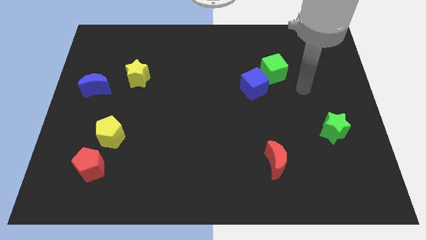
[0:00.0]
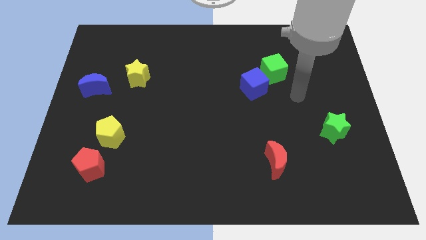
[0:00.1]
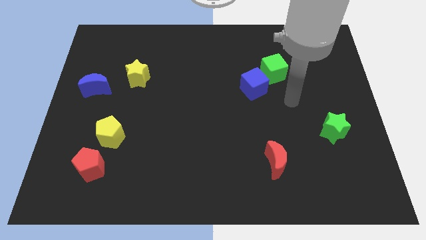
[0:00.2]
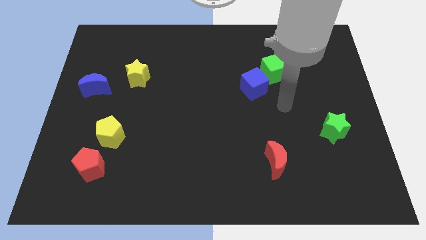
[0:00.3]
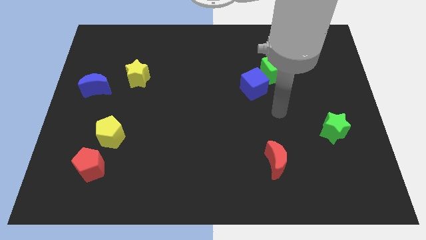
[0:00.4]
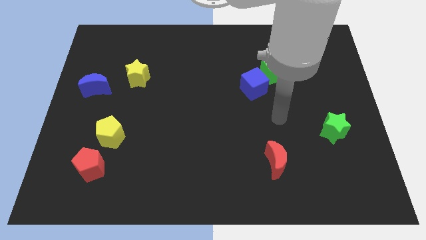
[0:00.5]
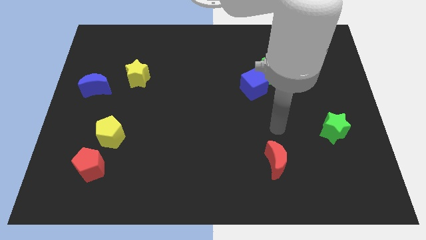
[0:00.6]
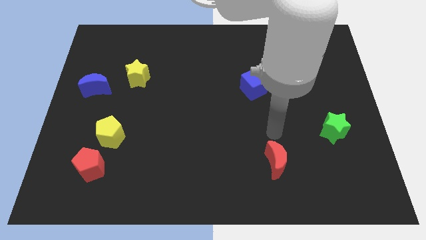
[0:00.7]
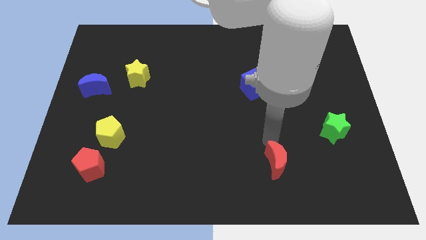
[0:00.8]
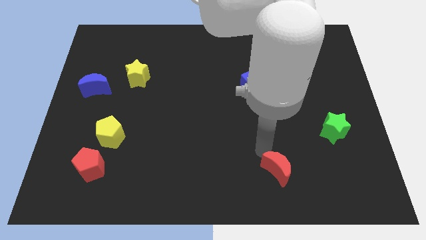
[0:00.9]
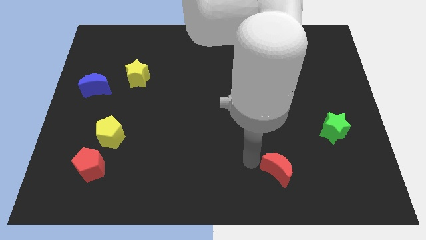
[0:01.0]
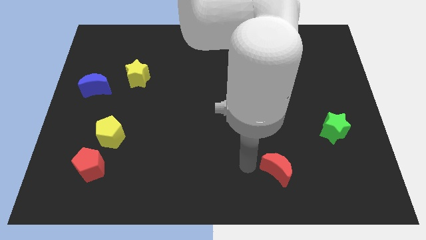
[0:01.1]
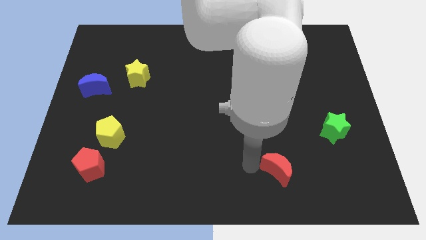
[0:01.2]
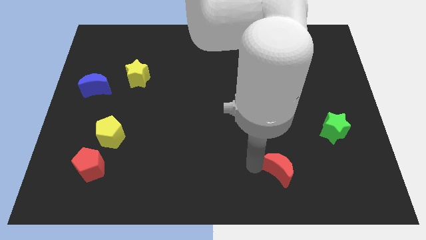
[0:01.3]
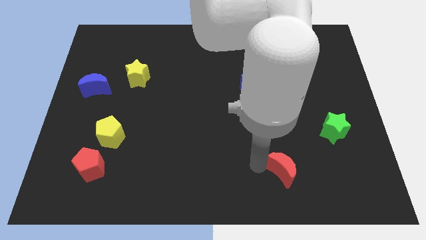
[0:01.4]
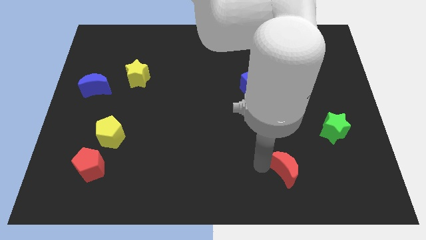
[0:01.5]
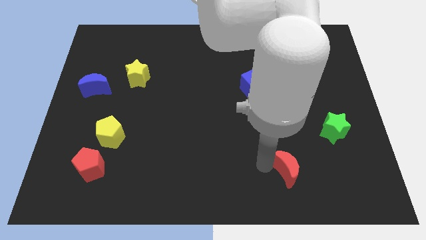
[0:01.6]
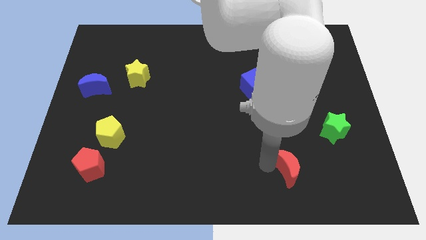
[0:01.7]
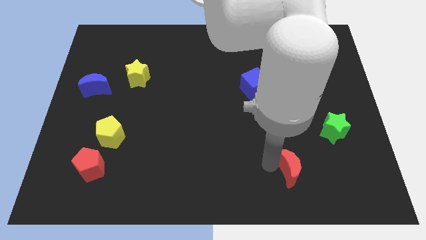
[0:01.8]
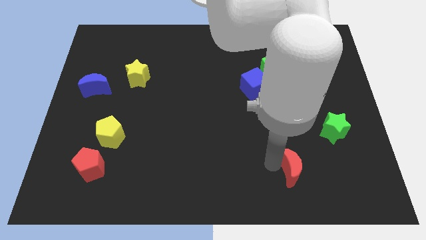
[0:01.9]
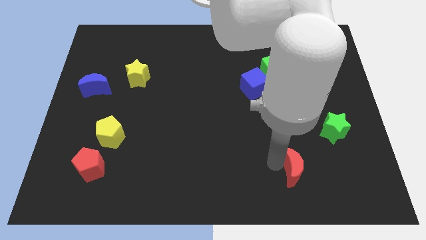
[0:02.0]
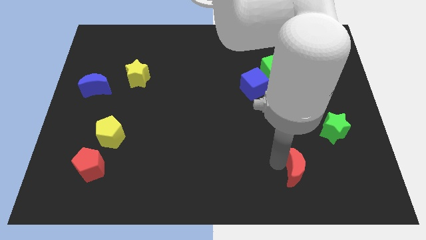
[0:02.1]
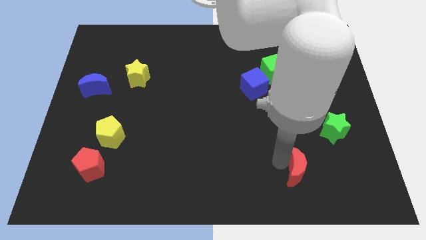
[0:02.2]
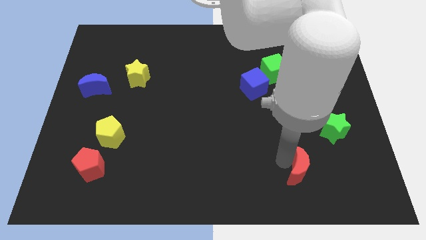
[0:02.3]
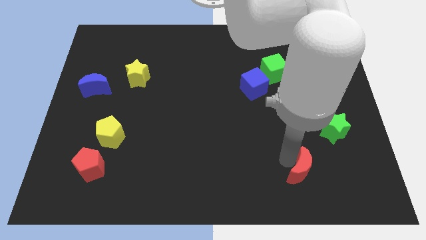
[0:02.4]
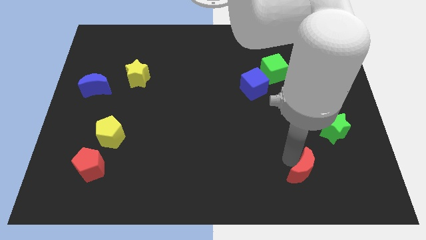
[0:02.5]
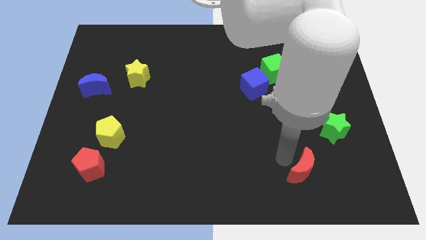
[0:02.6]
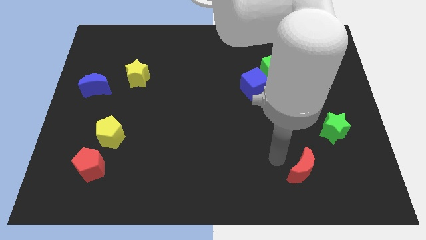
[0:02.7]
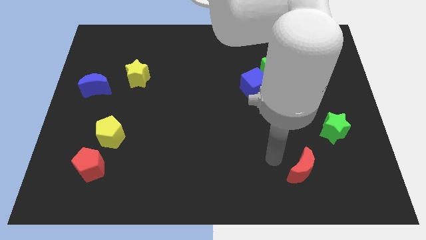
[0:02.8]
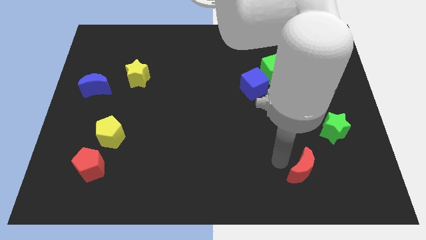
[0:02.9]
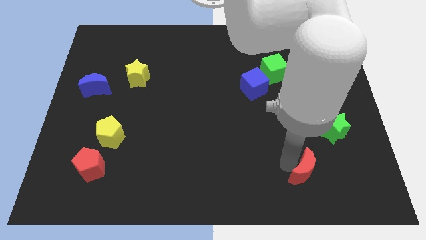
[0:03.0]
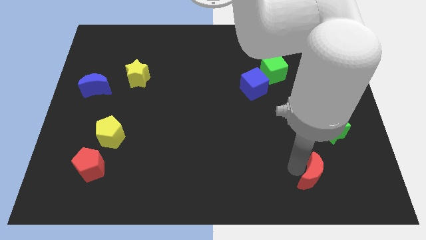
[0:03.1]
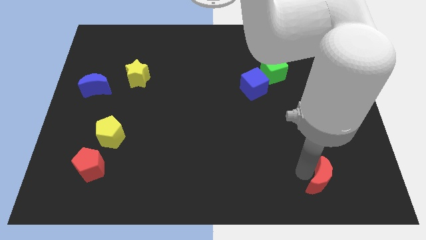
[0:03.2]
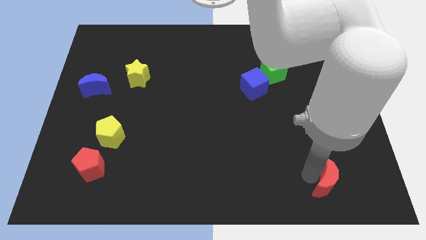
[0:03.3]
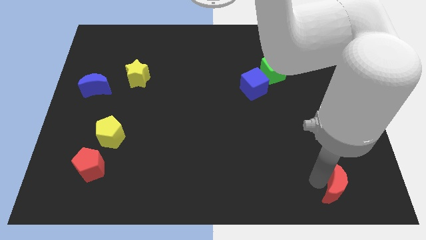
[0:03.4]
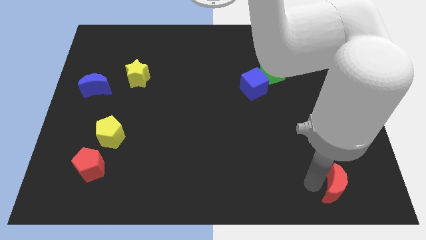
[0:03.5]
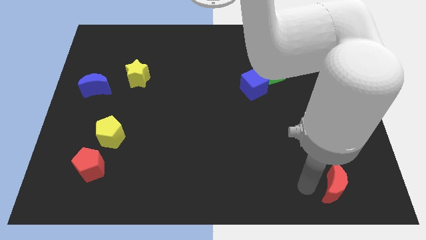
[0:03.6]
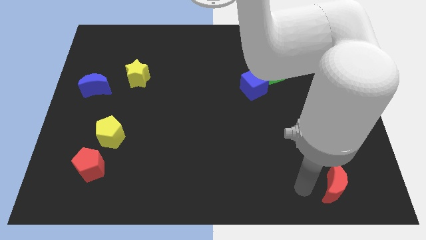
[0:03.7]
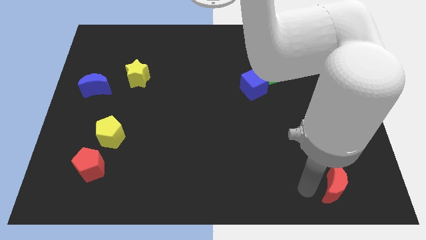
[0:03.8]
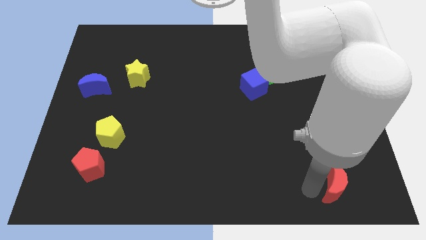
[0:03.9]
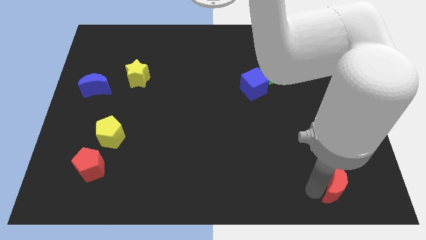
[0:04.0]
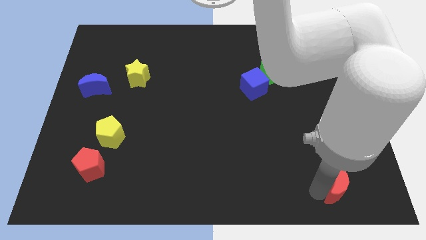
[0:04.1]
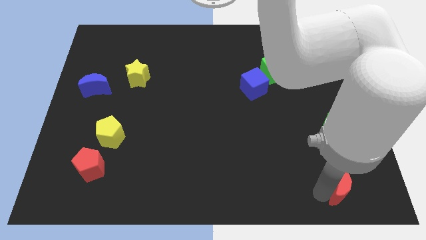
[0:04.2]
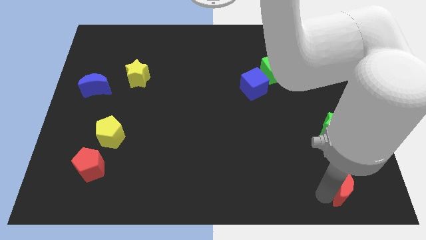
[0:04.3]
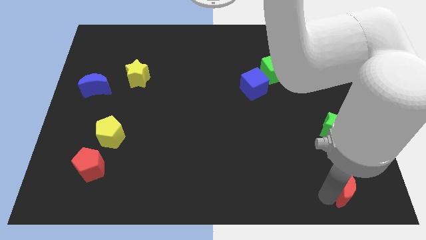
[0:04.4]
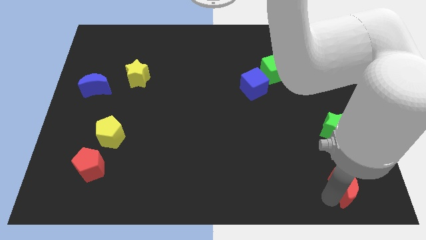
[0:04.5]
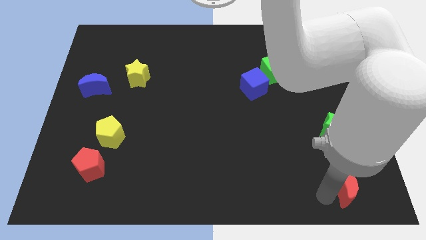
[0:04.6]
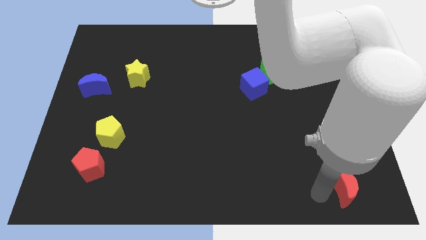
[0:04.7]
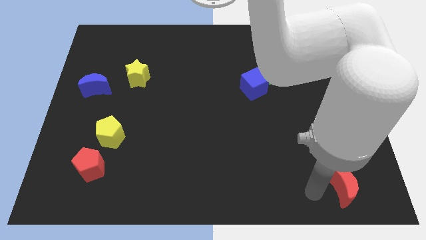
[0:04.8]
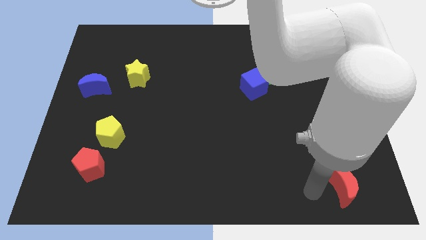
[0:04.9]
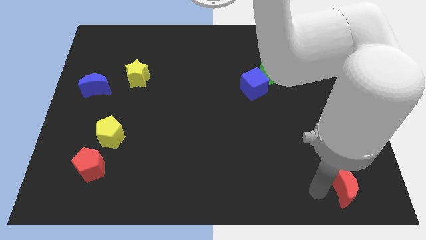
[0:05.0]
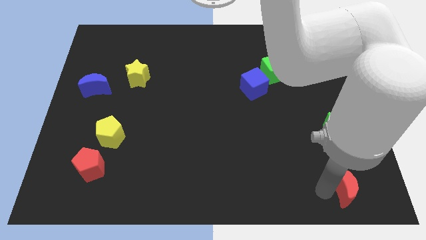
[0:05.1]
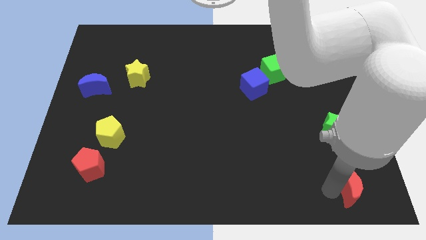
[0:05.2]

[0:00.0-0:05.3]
move the red moon to the bottom right

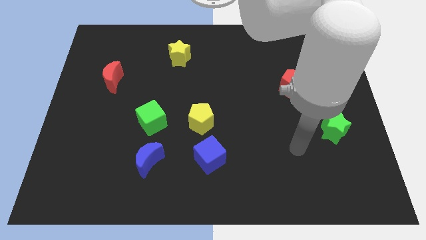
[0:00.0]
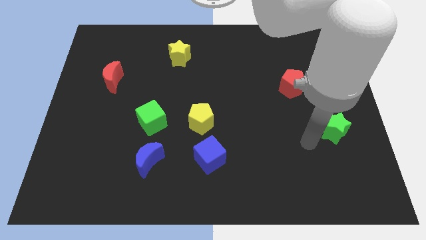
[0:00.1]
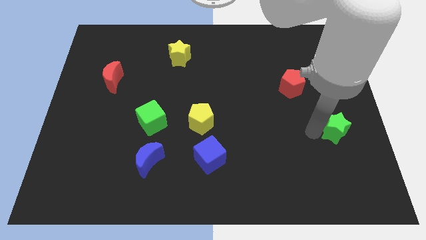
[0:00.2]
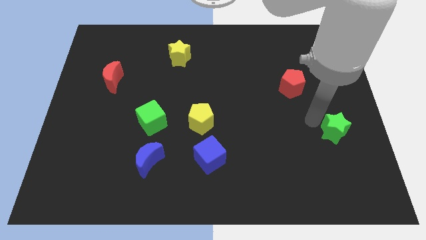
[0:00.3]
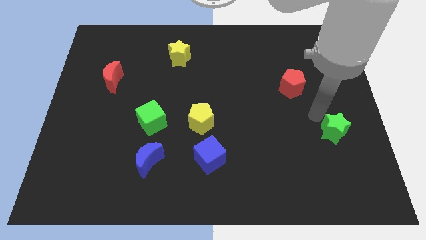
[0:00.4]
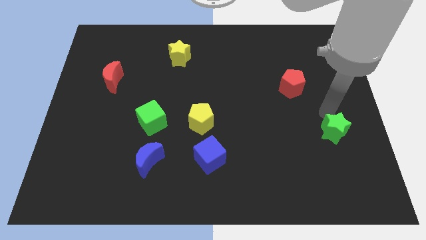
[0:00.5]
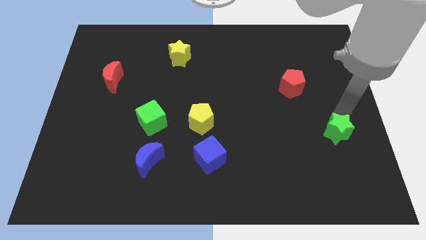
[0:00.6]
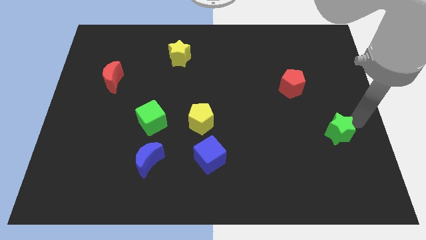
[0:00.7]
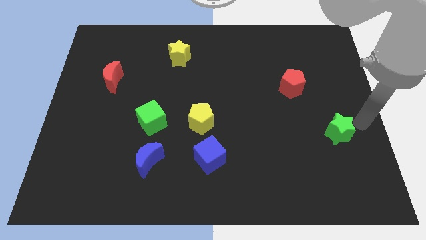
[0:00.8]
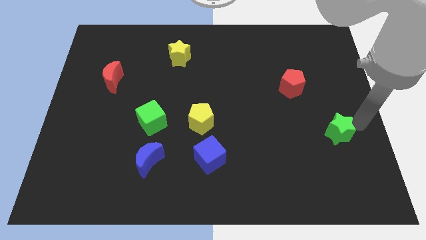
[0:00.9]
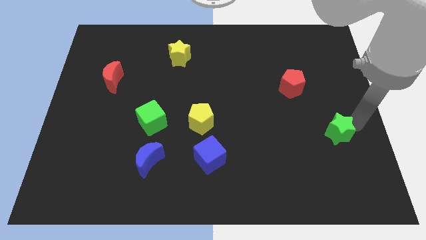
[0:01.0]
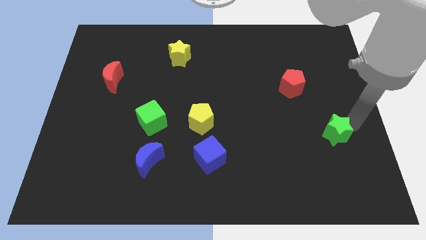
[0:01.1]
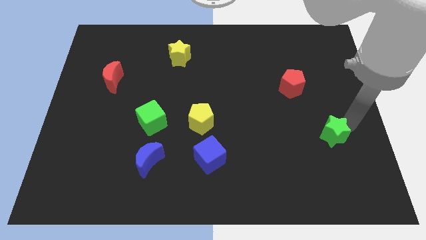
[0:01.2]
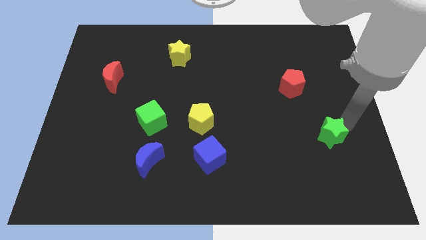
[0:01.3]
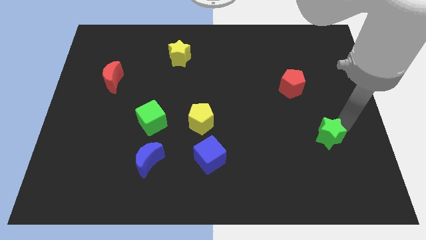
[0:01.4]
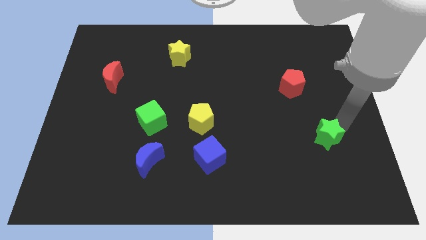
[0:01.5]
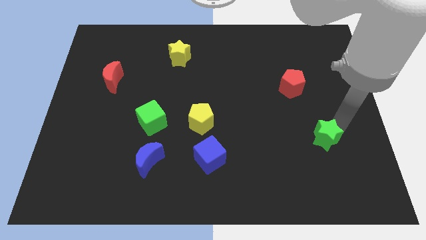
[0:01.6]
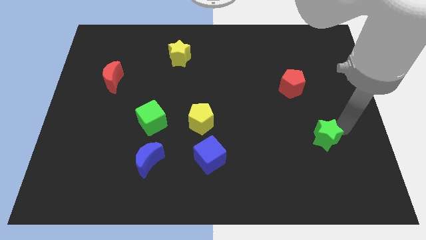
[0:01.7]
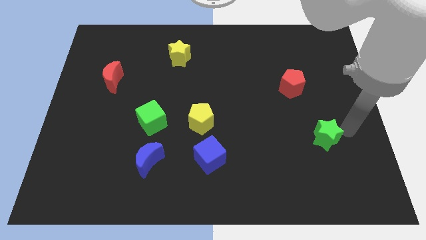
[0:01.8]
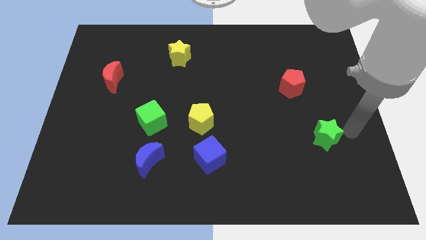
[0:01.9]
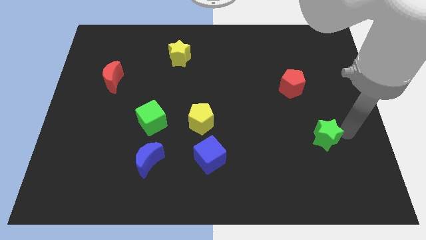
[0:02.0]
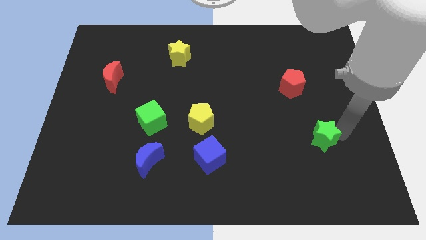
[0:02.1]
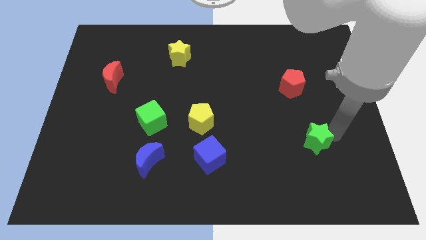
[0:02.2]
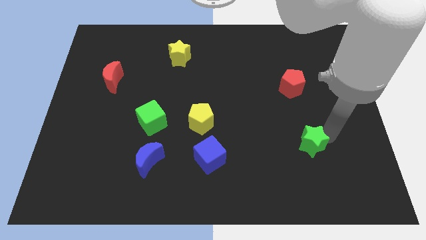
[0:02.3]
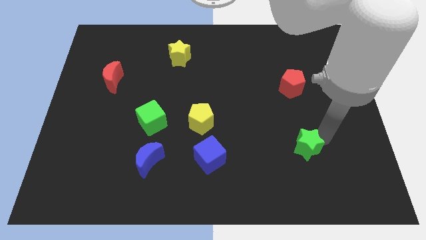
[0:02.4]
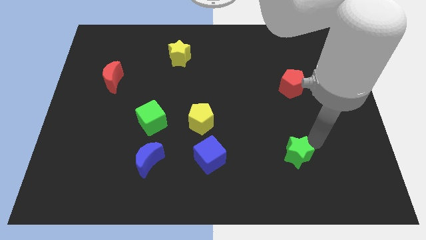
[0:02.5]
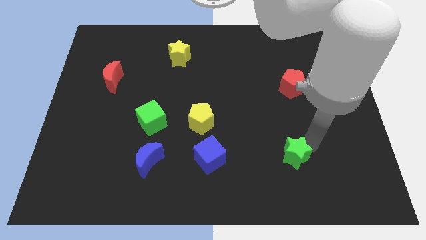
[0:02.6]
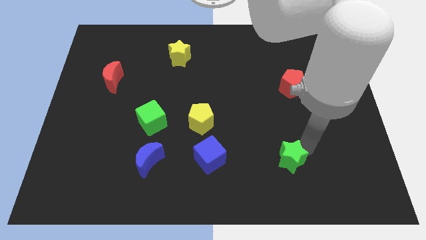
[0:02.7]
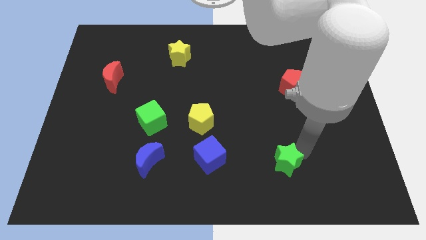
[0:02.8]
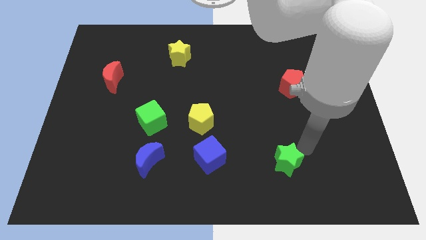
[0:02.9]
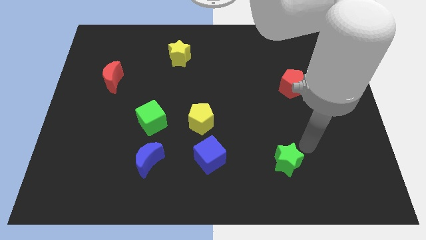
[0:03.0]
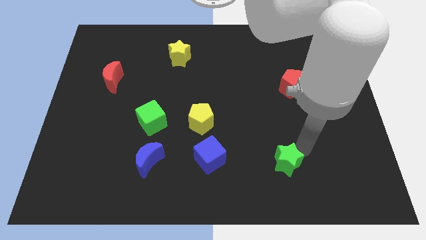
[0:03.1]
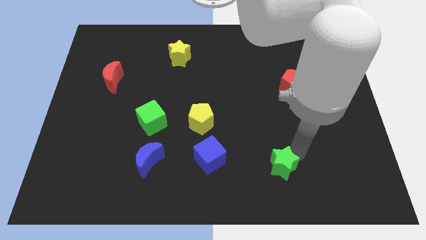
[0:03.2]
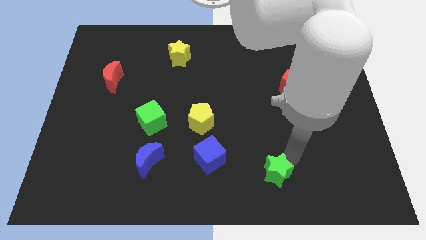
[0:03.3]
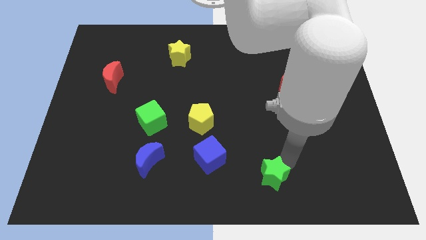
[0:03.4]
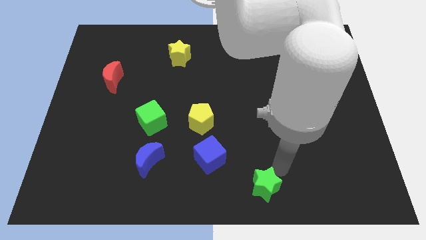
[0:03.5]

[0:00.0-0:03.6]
move the green star to the bottom side
